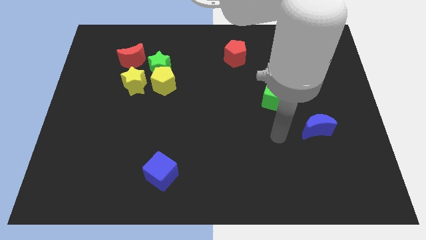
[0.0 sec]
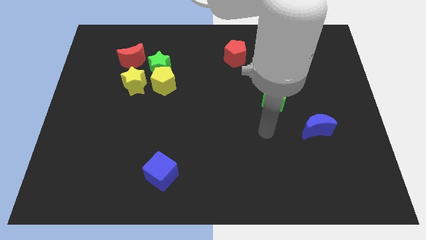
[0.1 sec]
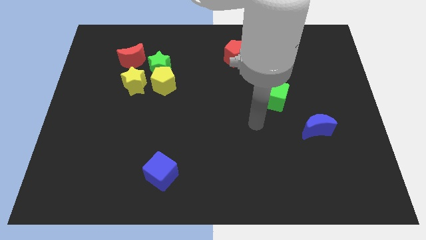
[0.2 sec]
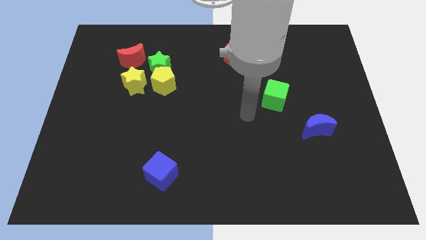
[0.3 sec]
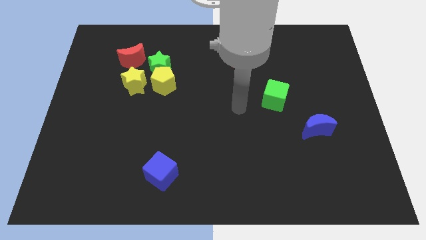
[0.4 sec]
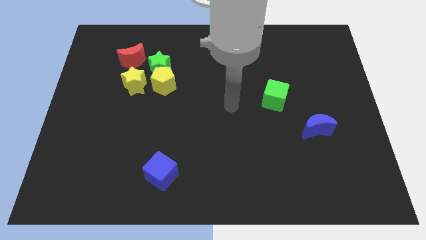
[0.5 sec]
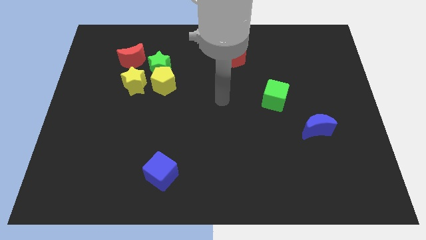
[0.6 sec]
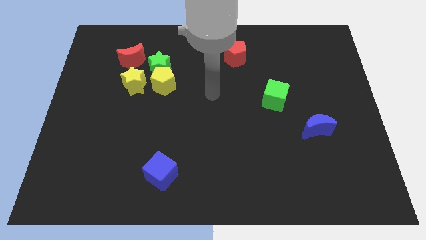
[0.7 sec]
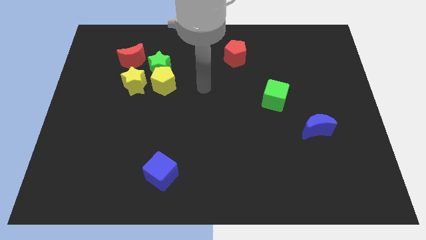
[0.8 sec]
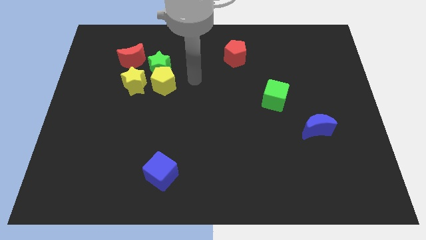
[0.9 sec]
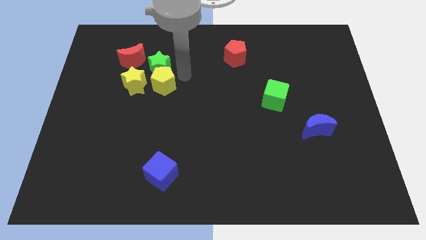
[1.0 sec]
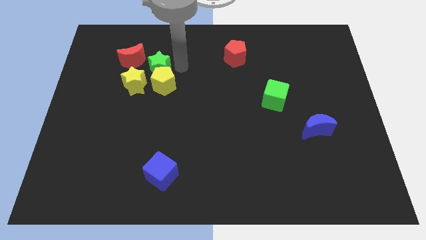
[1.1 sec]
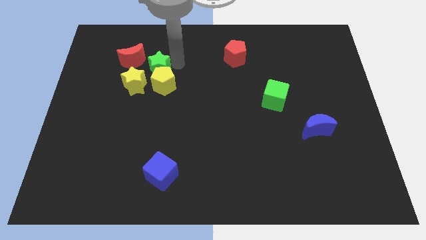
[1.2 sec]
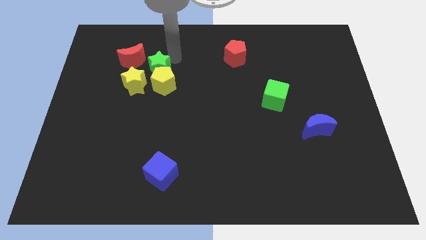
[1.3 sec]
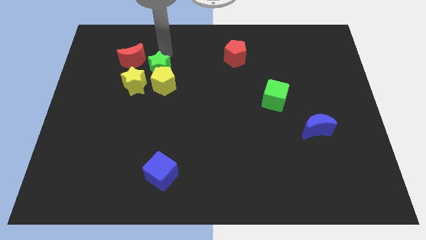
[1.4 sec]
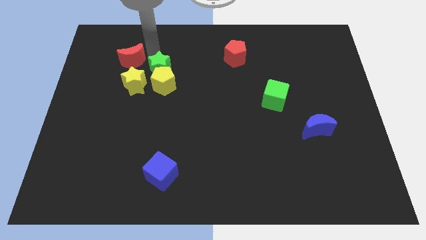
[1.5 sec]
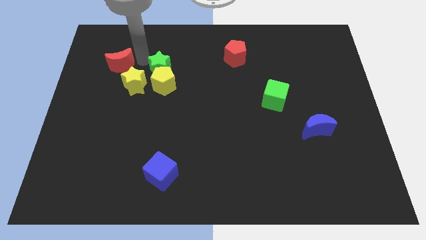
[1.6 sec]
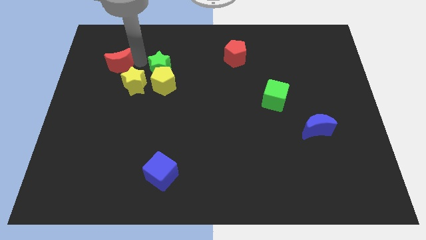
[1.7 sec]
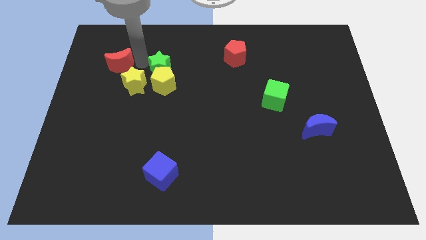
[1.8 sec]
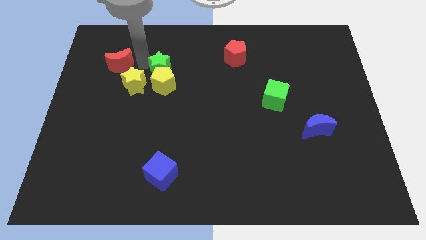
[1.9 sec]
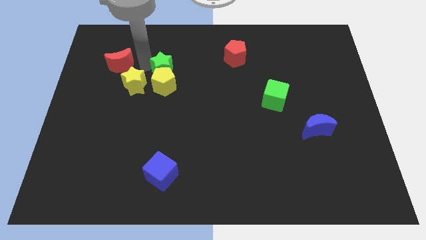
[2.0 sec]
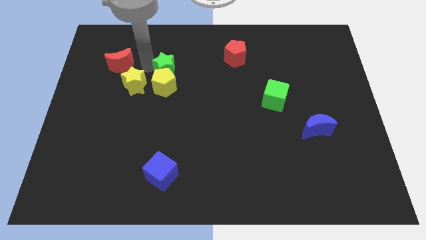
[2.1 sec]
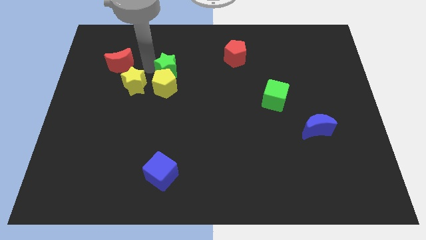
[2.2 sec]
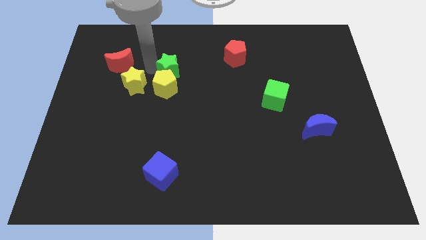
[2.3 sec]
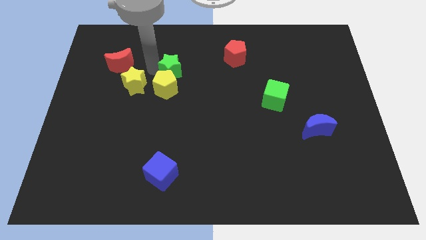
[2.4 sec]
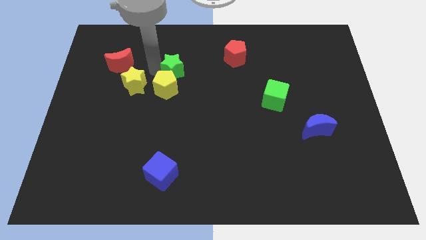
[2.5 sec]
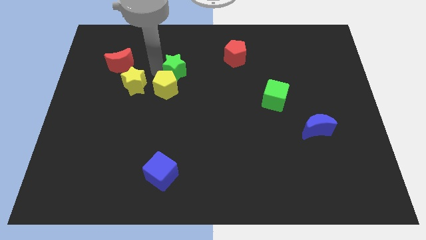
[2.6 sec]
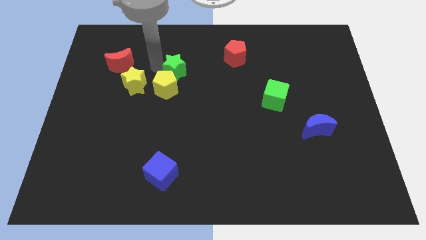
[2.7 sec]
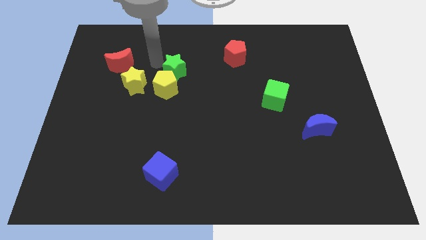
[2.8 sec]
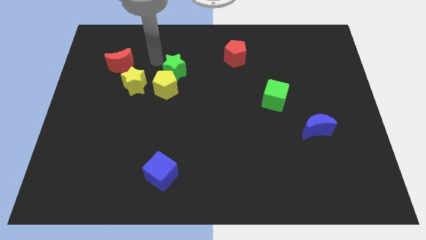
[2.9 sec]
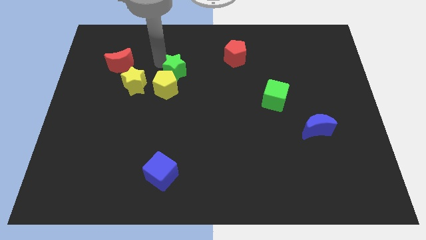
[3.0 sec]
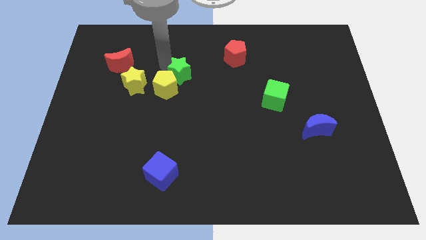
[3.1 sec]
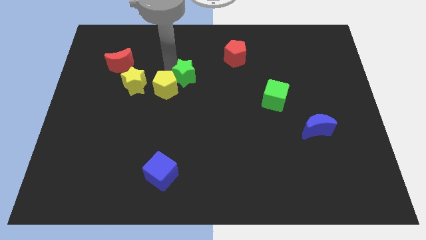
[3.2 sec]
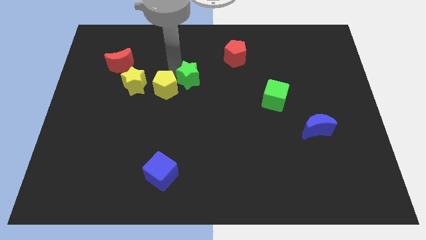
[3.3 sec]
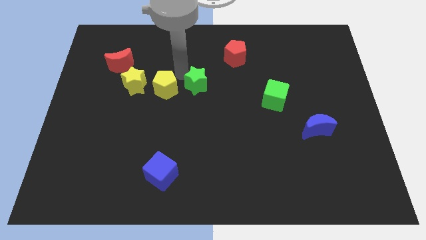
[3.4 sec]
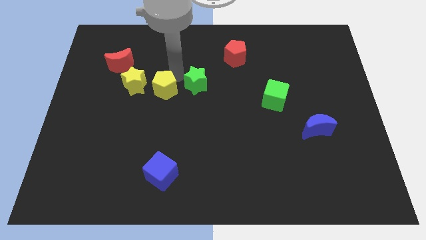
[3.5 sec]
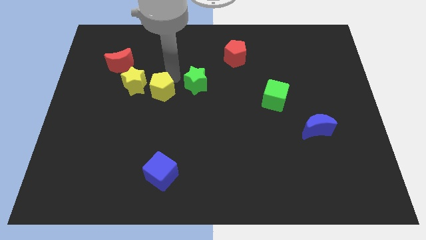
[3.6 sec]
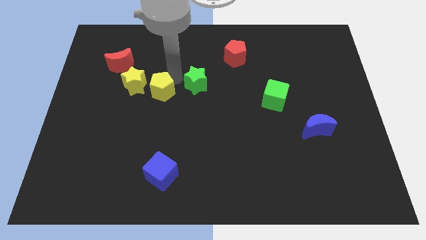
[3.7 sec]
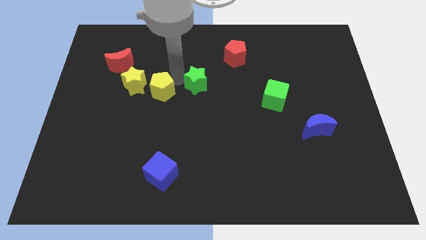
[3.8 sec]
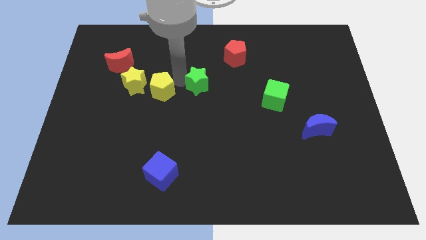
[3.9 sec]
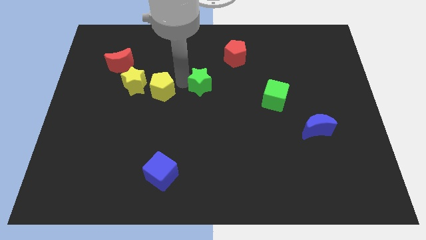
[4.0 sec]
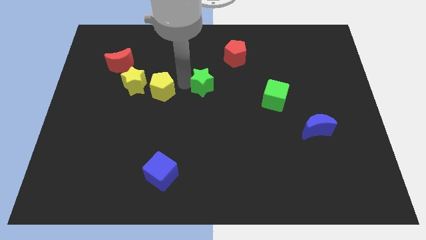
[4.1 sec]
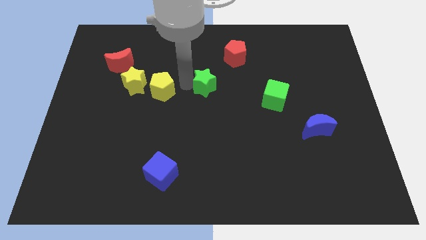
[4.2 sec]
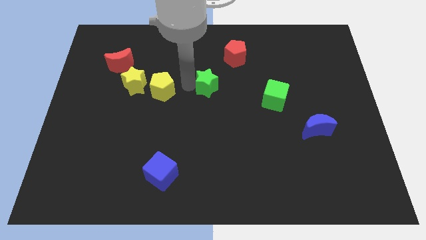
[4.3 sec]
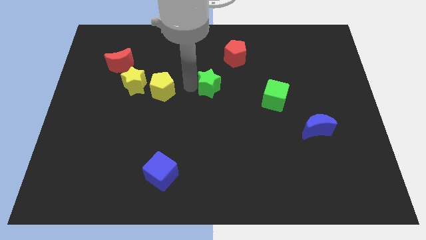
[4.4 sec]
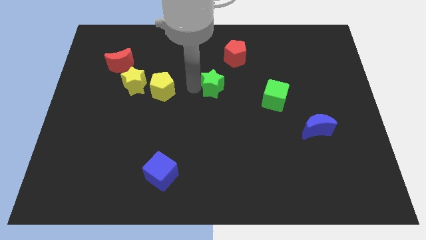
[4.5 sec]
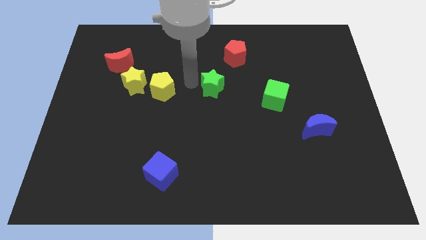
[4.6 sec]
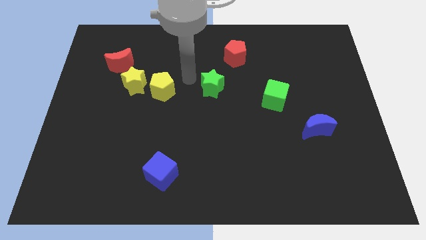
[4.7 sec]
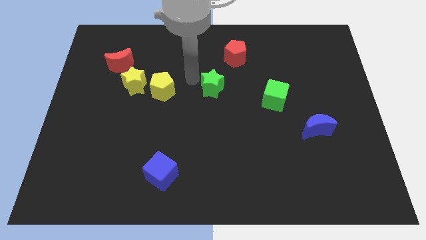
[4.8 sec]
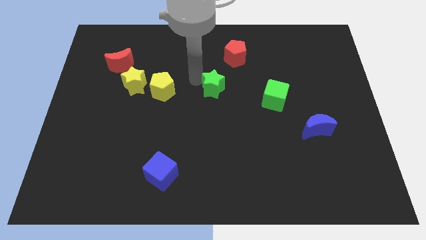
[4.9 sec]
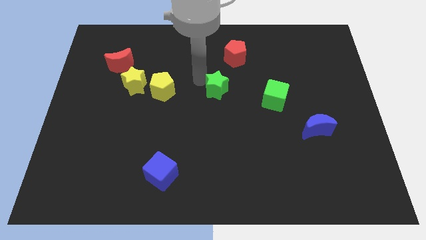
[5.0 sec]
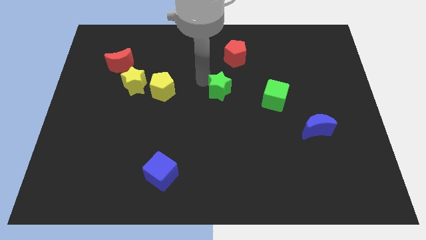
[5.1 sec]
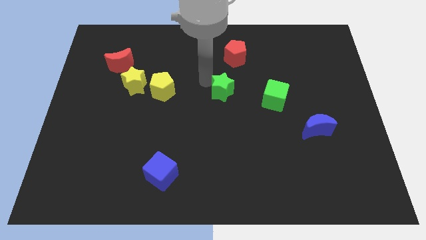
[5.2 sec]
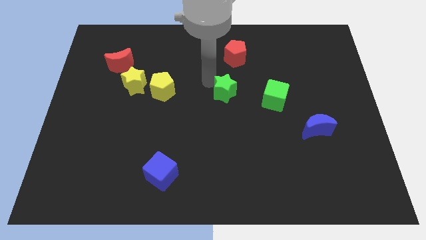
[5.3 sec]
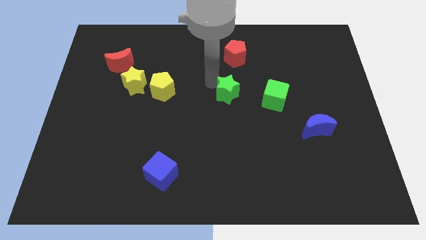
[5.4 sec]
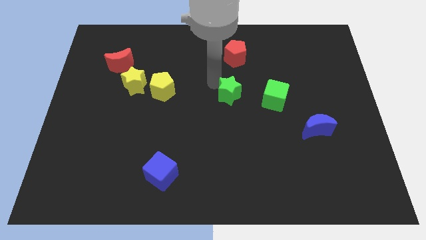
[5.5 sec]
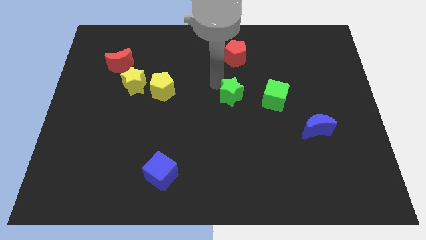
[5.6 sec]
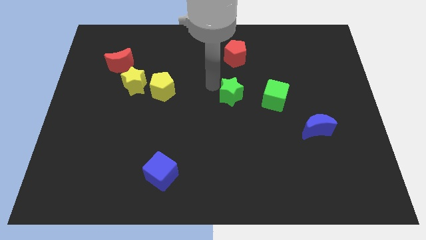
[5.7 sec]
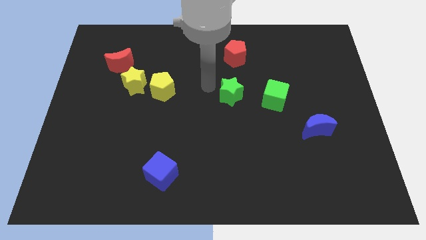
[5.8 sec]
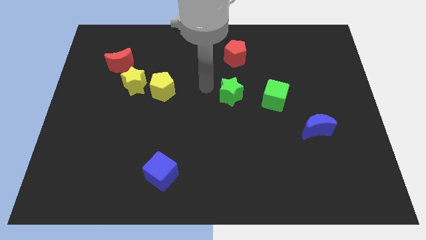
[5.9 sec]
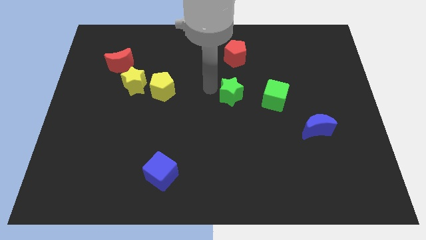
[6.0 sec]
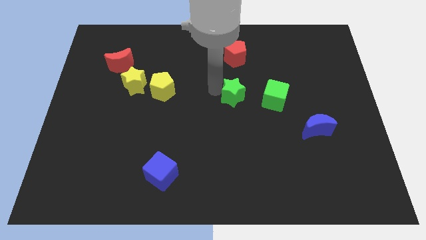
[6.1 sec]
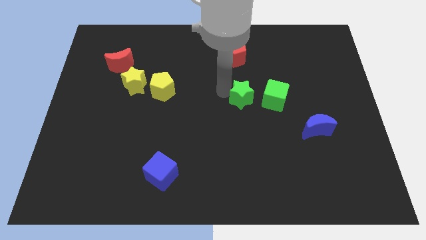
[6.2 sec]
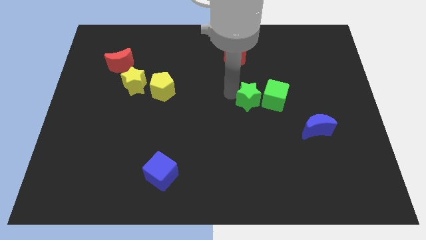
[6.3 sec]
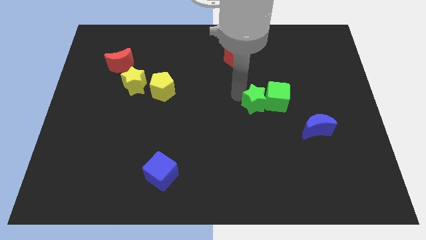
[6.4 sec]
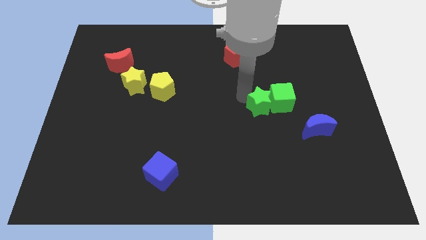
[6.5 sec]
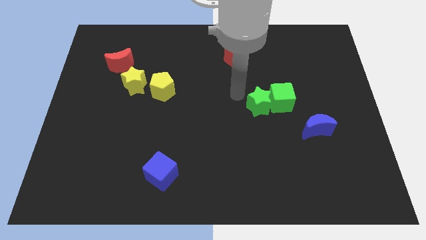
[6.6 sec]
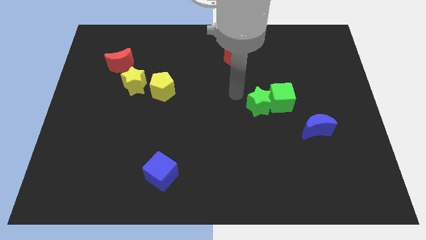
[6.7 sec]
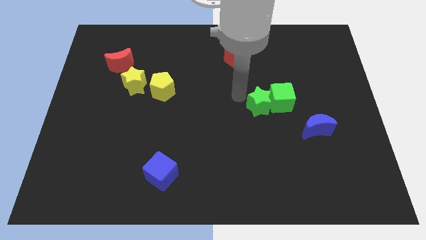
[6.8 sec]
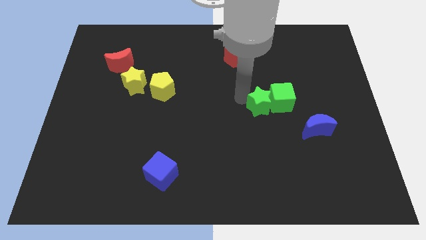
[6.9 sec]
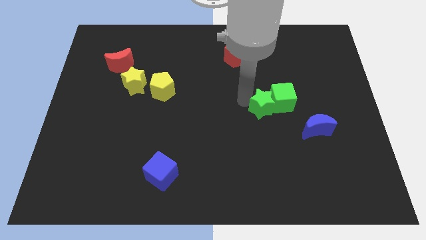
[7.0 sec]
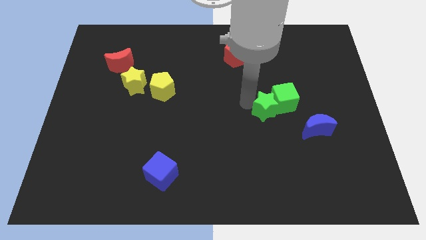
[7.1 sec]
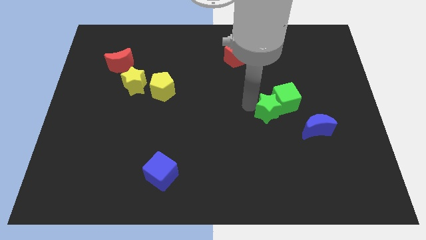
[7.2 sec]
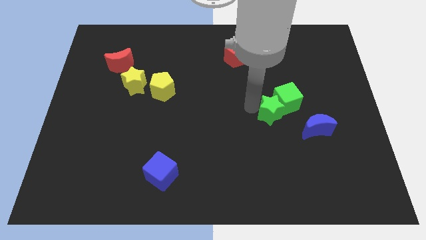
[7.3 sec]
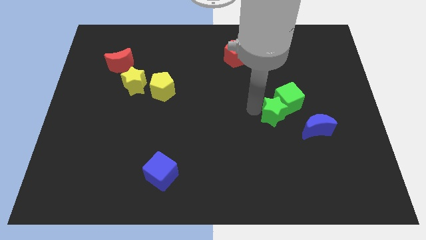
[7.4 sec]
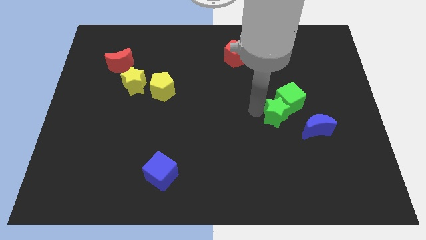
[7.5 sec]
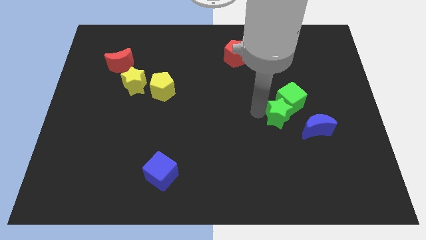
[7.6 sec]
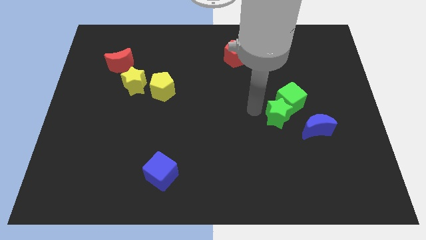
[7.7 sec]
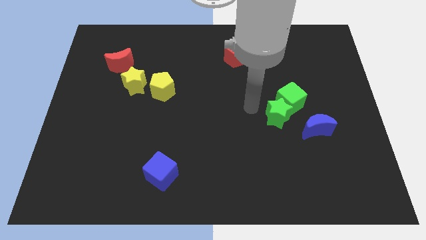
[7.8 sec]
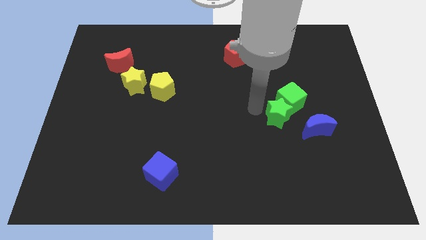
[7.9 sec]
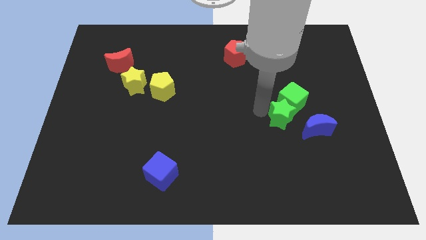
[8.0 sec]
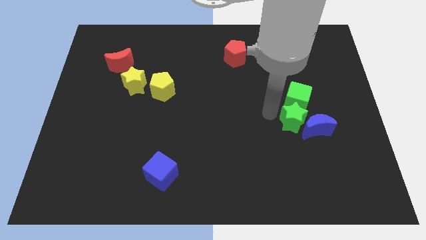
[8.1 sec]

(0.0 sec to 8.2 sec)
move the green star to the blue moon
